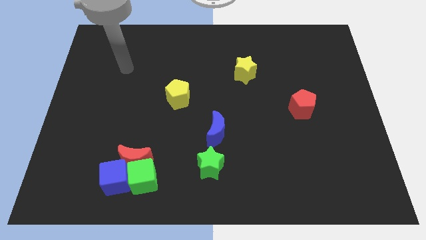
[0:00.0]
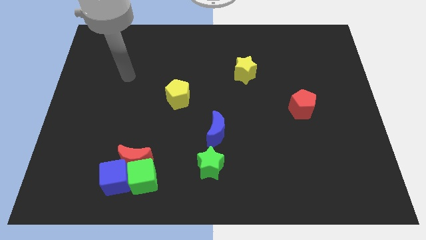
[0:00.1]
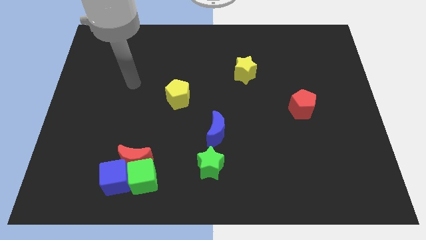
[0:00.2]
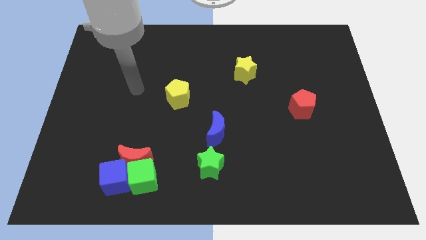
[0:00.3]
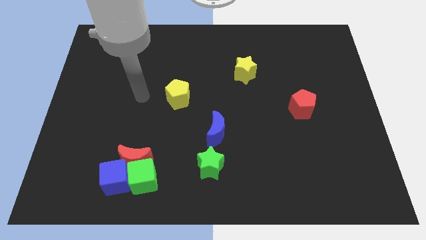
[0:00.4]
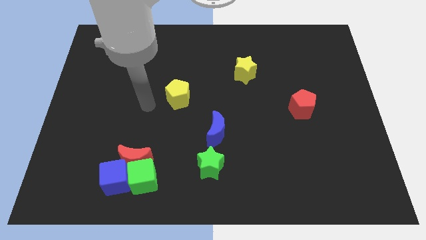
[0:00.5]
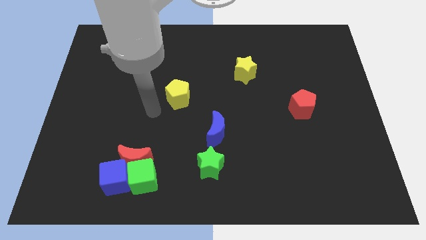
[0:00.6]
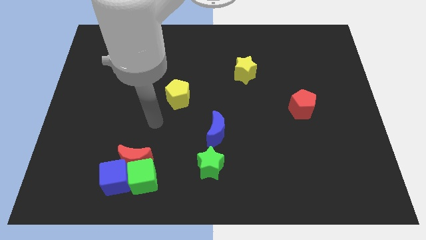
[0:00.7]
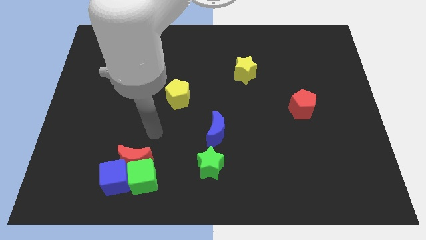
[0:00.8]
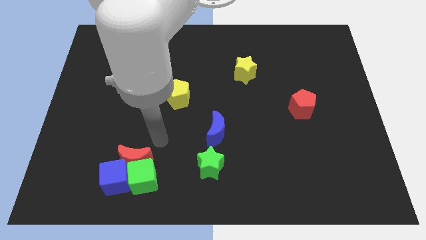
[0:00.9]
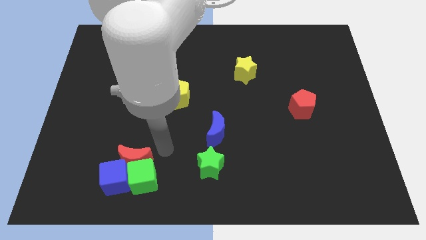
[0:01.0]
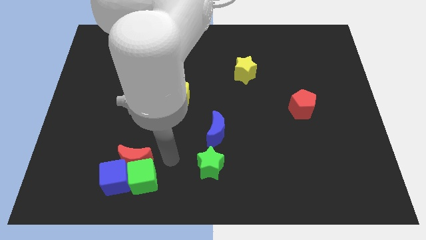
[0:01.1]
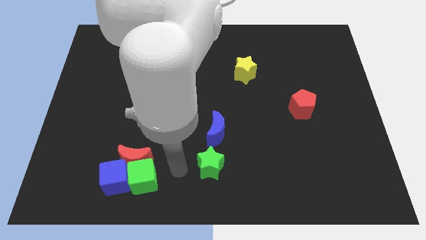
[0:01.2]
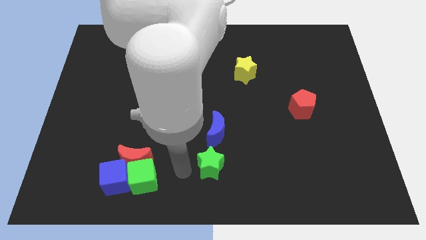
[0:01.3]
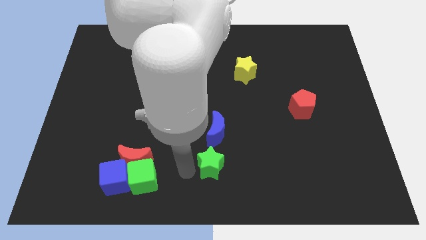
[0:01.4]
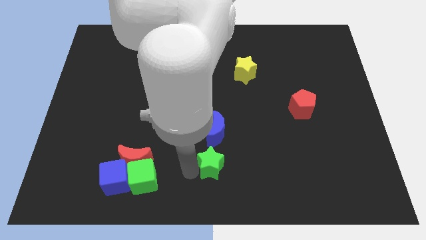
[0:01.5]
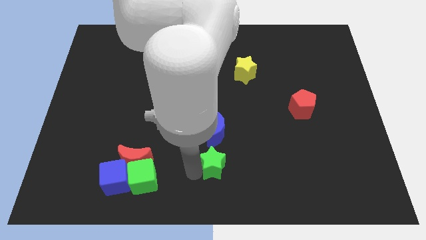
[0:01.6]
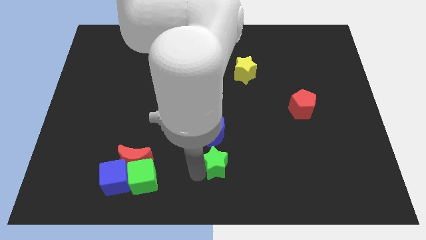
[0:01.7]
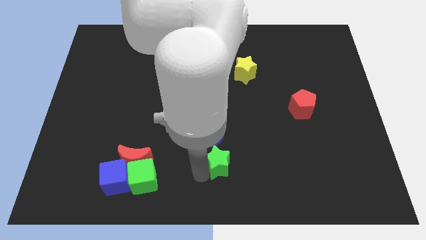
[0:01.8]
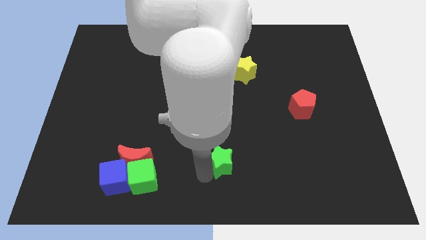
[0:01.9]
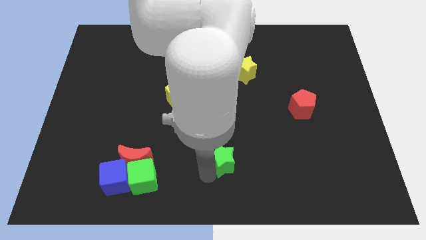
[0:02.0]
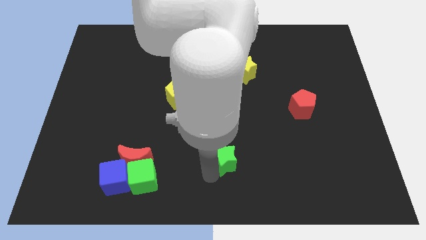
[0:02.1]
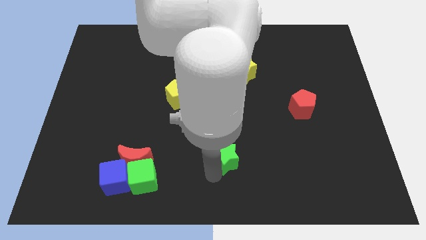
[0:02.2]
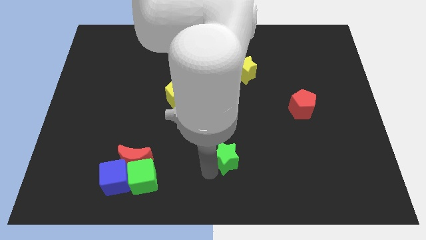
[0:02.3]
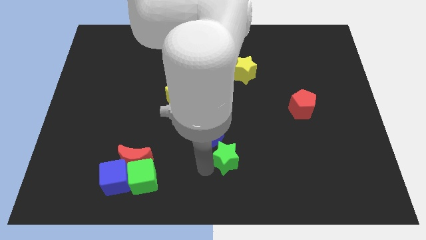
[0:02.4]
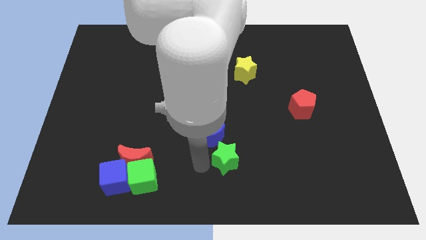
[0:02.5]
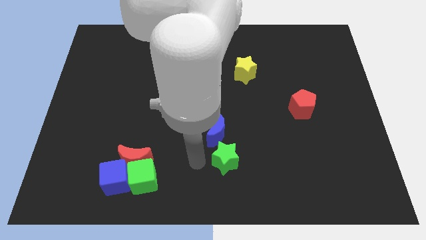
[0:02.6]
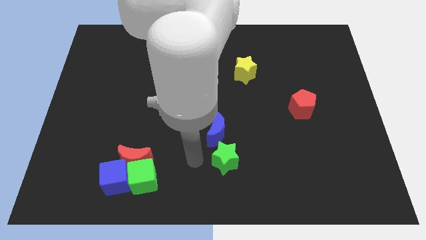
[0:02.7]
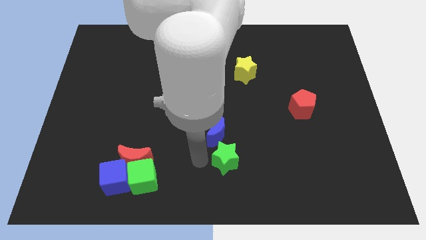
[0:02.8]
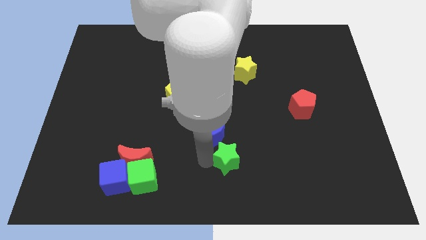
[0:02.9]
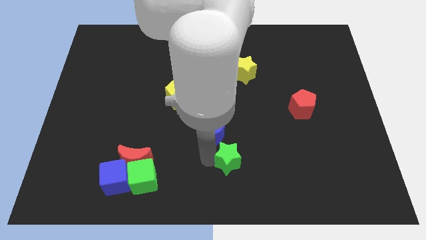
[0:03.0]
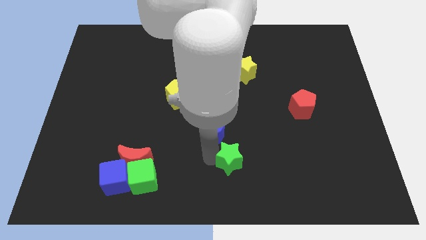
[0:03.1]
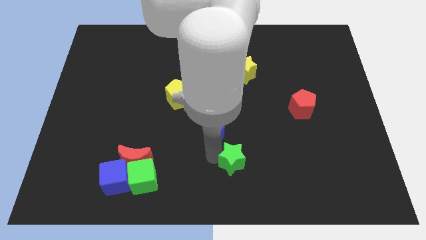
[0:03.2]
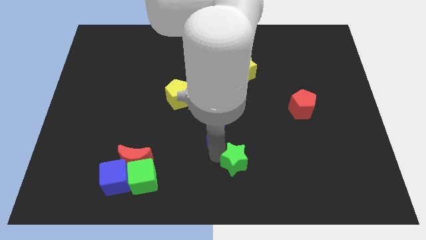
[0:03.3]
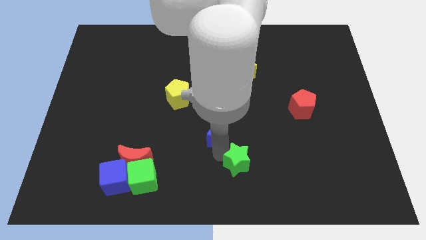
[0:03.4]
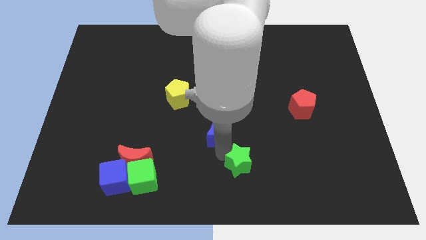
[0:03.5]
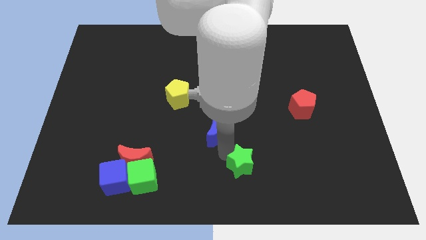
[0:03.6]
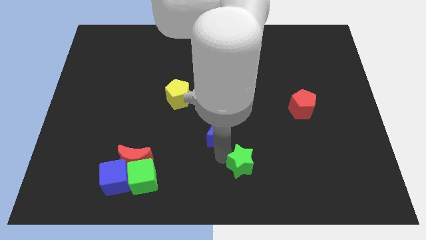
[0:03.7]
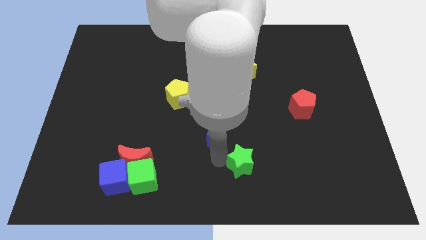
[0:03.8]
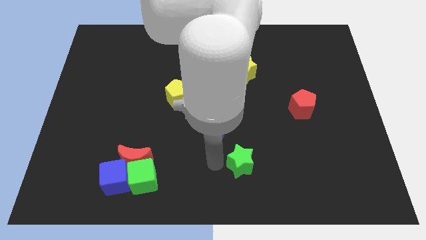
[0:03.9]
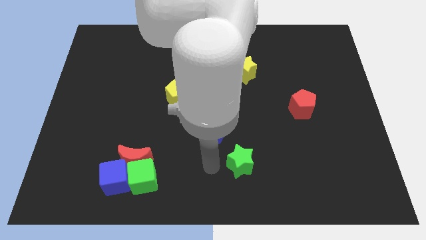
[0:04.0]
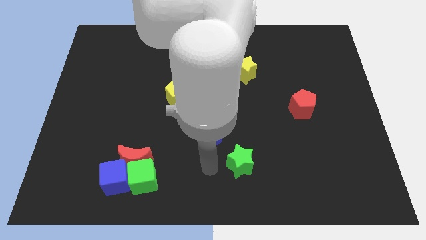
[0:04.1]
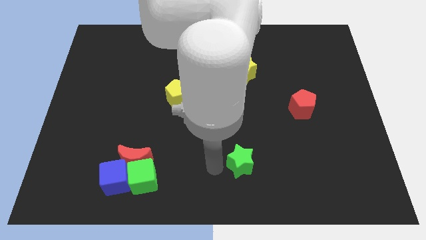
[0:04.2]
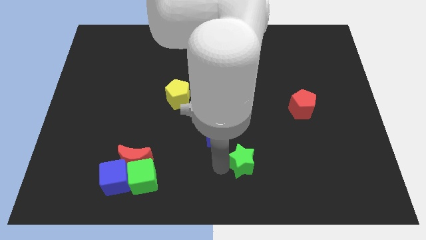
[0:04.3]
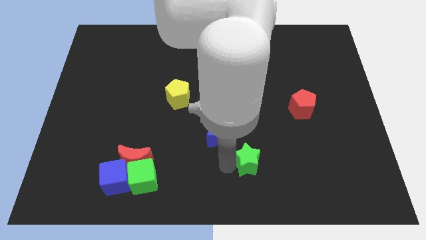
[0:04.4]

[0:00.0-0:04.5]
slightly push the green star to the right

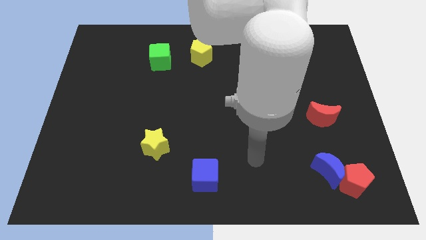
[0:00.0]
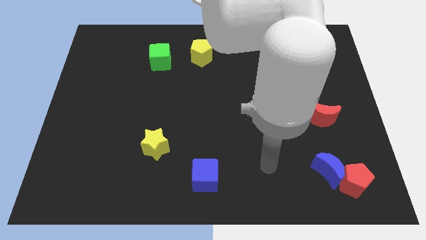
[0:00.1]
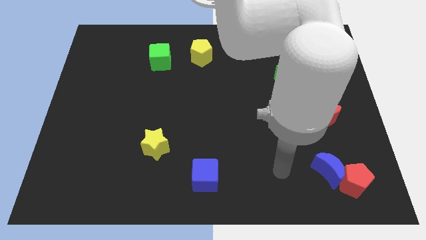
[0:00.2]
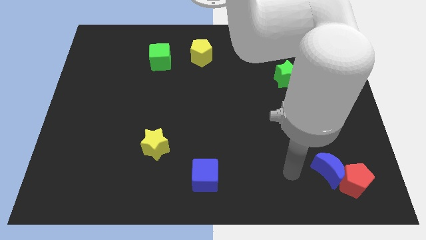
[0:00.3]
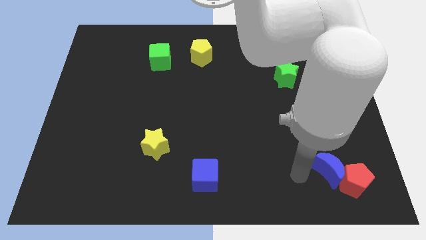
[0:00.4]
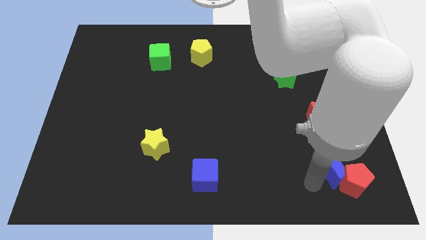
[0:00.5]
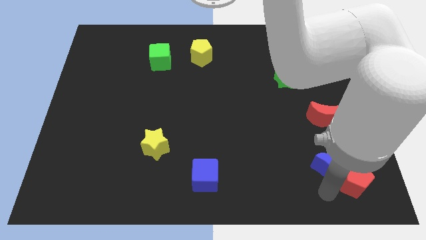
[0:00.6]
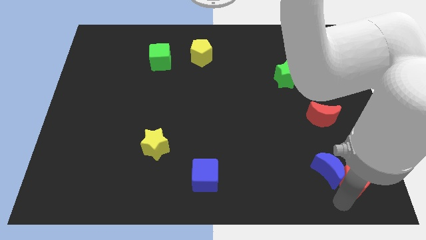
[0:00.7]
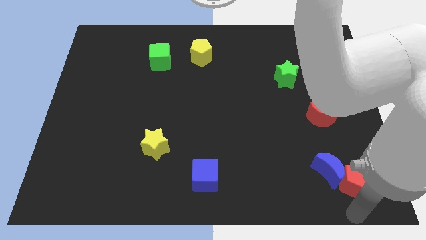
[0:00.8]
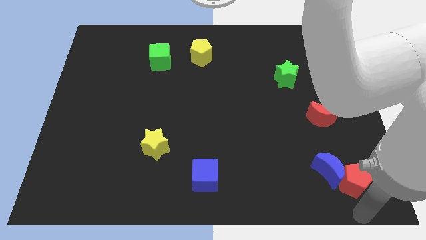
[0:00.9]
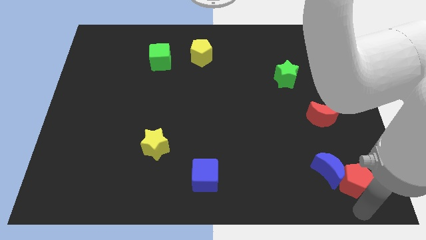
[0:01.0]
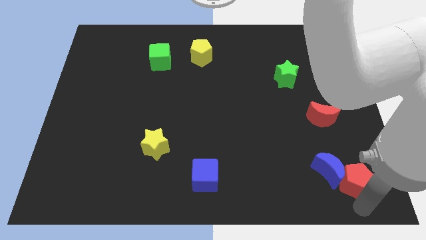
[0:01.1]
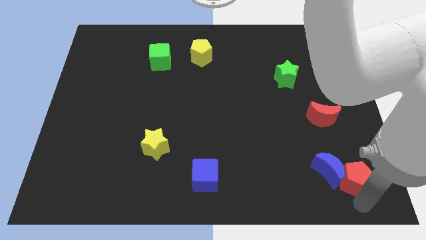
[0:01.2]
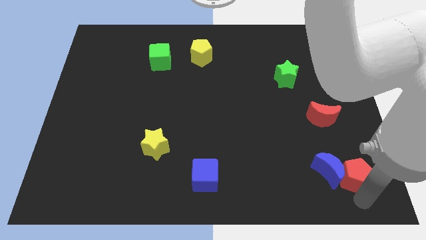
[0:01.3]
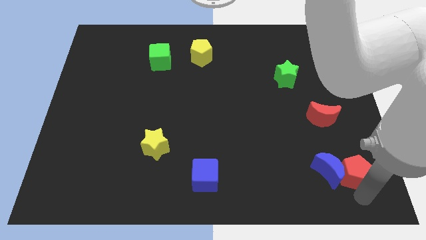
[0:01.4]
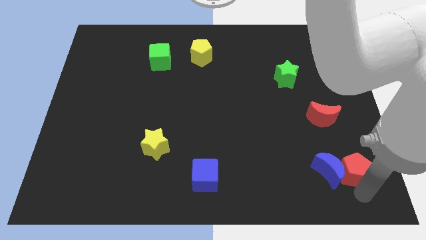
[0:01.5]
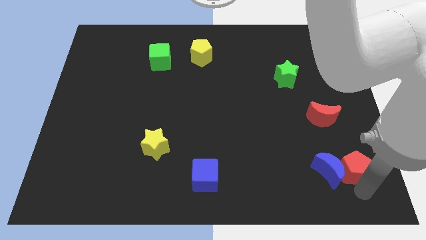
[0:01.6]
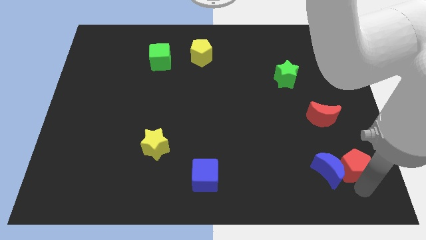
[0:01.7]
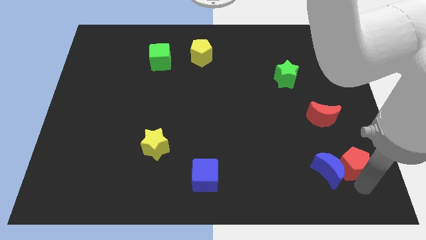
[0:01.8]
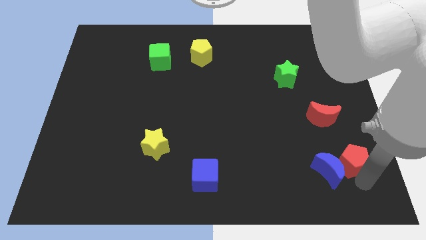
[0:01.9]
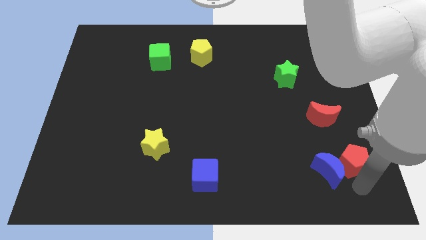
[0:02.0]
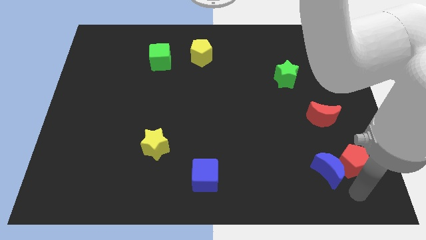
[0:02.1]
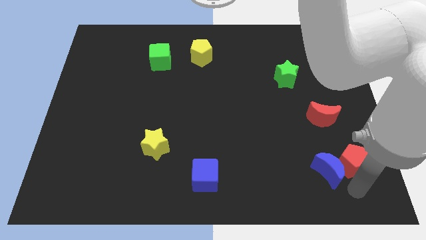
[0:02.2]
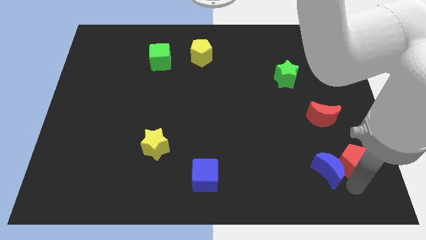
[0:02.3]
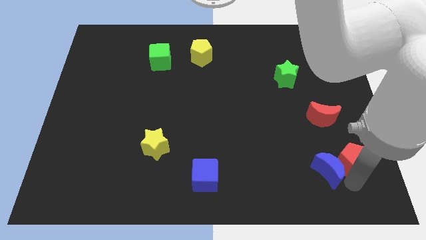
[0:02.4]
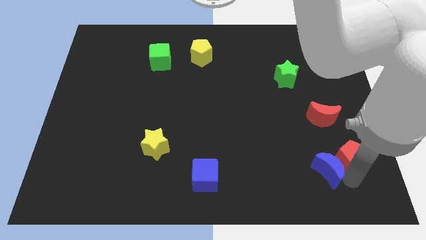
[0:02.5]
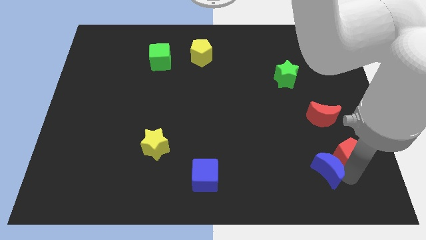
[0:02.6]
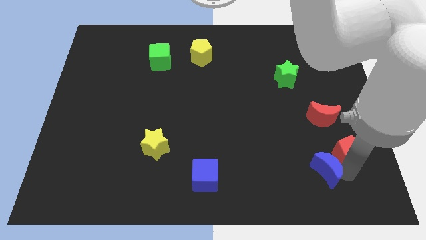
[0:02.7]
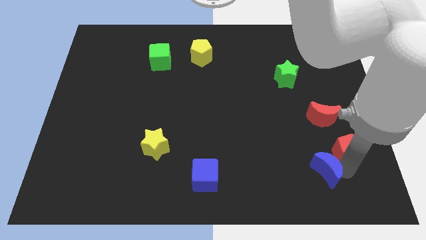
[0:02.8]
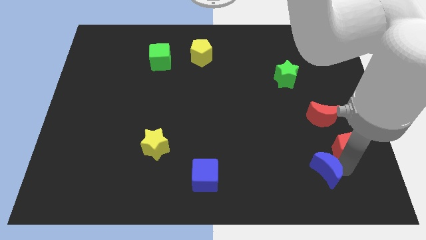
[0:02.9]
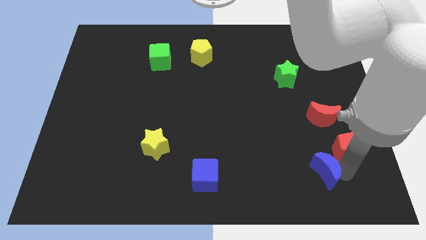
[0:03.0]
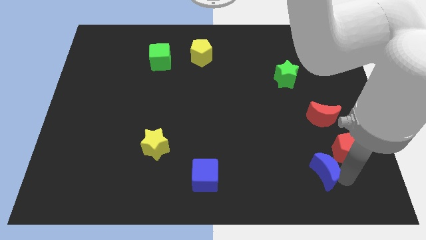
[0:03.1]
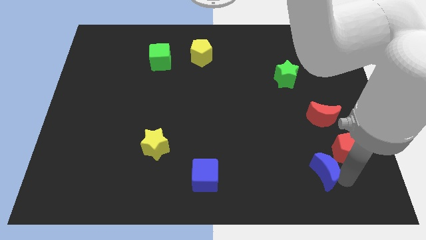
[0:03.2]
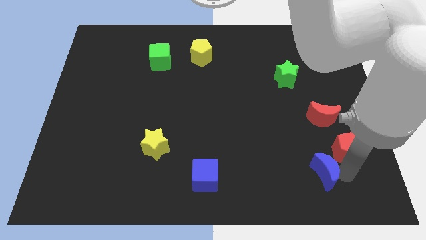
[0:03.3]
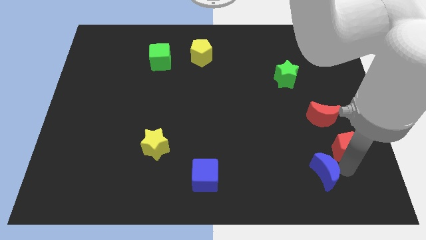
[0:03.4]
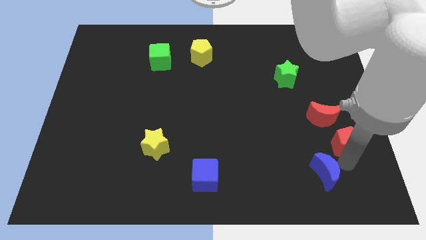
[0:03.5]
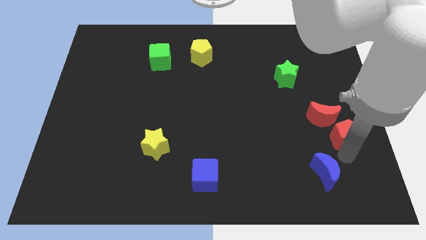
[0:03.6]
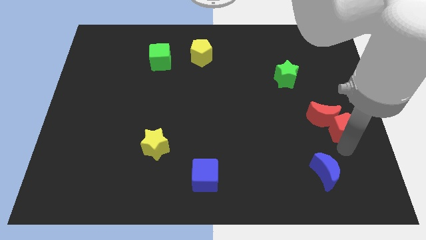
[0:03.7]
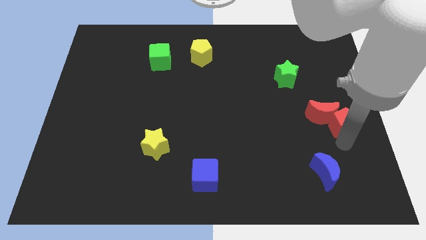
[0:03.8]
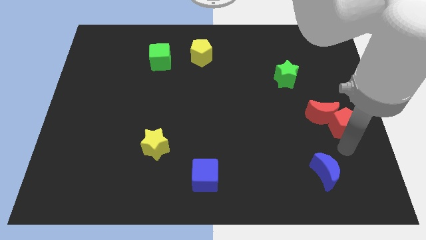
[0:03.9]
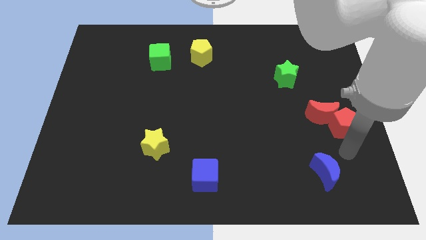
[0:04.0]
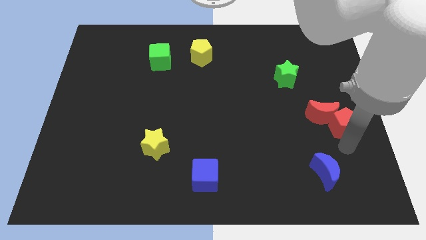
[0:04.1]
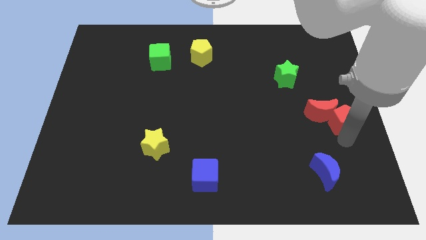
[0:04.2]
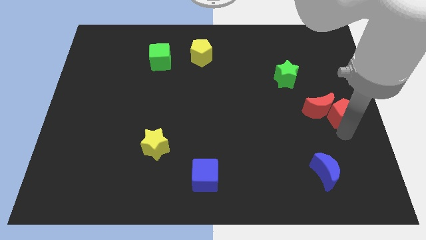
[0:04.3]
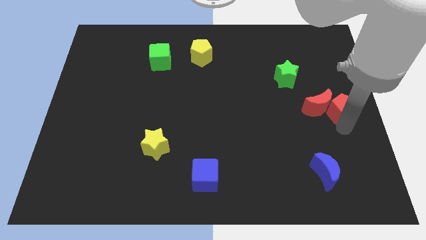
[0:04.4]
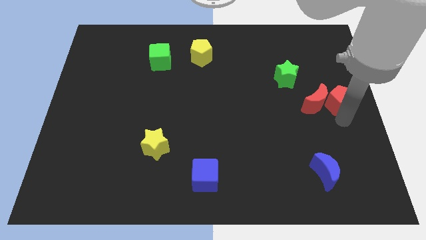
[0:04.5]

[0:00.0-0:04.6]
push the red pentagon up
